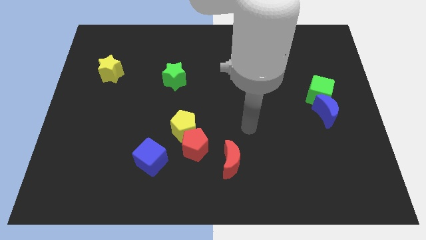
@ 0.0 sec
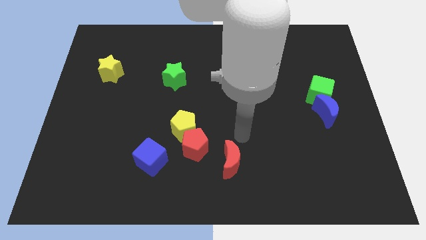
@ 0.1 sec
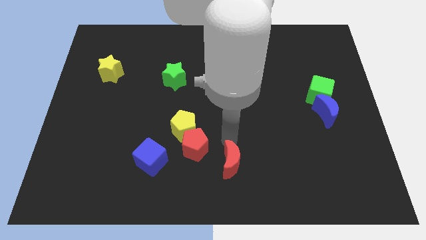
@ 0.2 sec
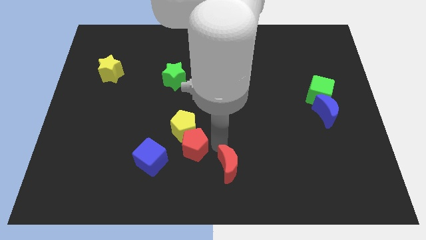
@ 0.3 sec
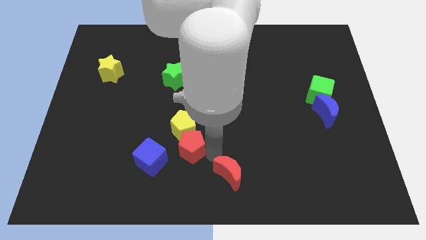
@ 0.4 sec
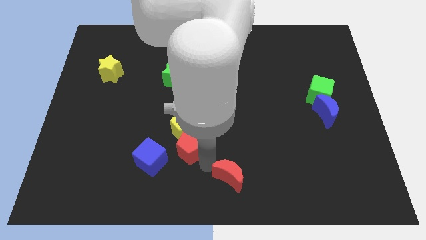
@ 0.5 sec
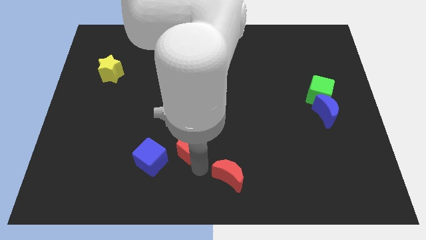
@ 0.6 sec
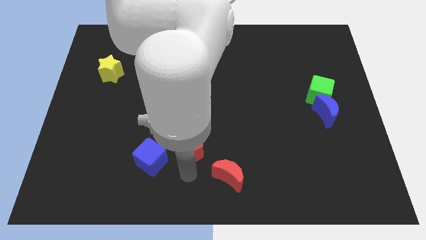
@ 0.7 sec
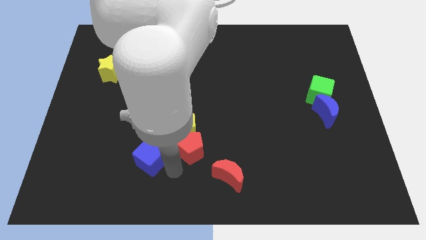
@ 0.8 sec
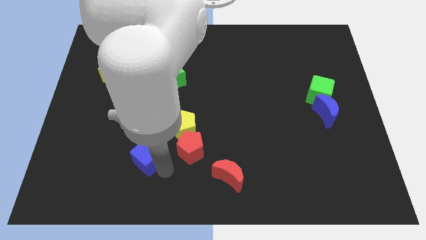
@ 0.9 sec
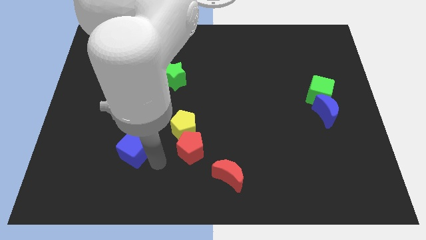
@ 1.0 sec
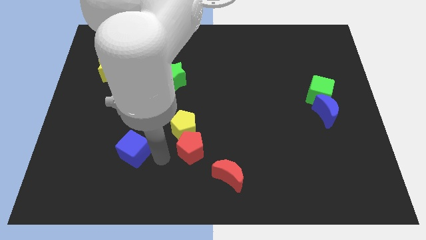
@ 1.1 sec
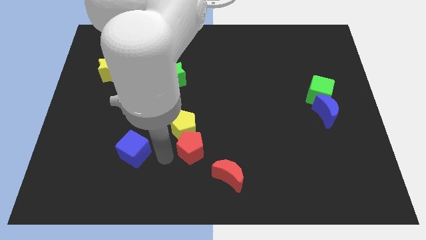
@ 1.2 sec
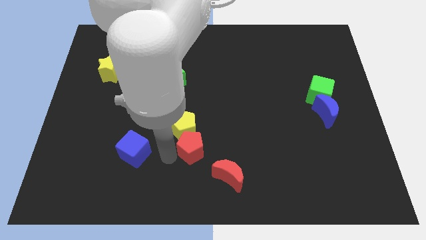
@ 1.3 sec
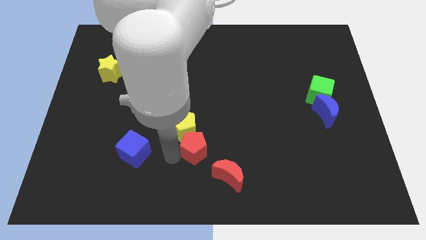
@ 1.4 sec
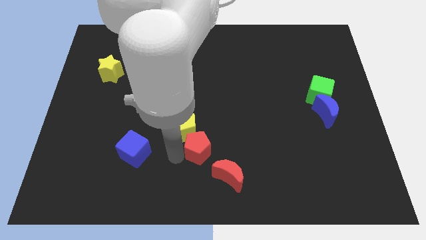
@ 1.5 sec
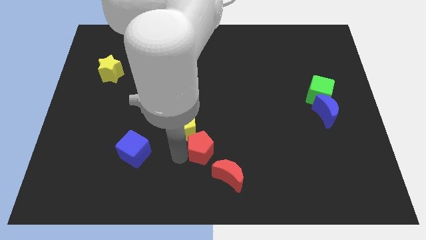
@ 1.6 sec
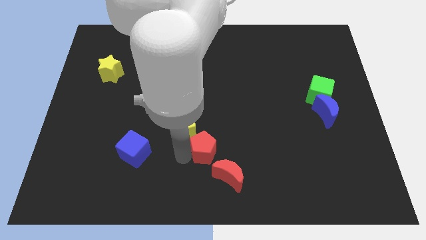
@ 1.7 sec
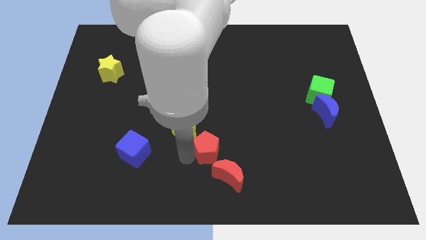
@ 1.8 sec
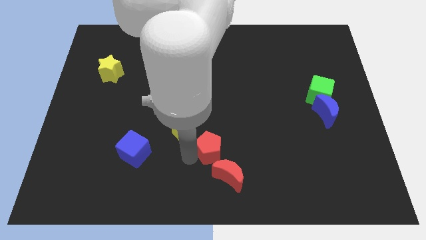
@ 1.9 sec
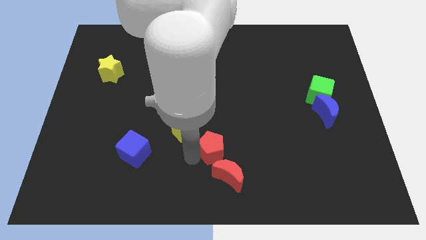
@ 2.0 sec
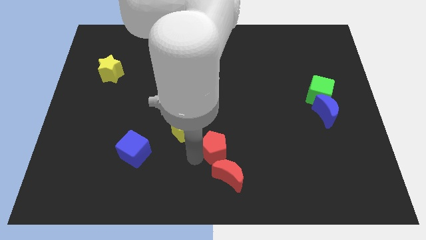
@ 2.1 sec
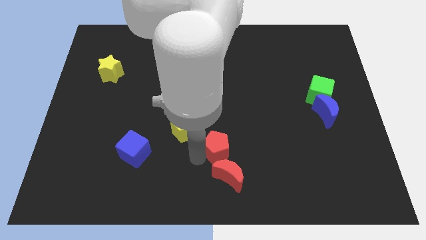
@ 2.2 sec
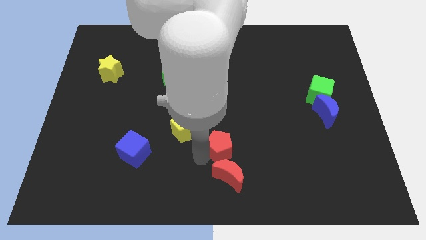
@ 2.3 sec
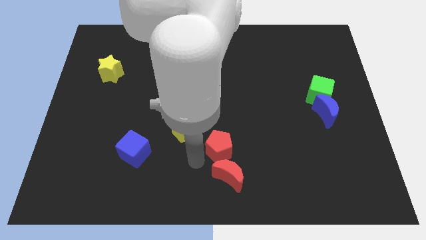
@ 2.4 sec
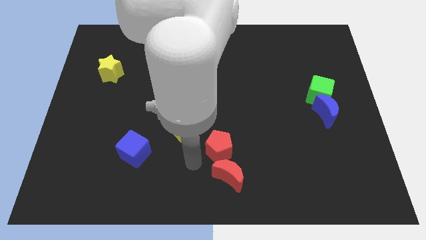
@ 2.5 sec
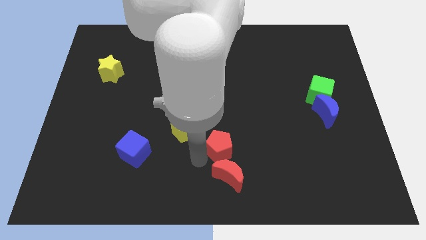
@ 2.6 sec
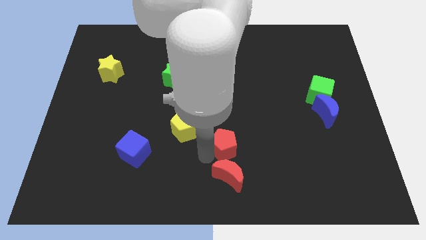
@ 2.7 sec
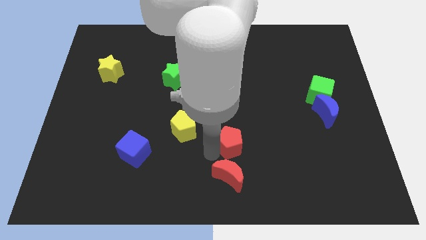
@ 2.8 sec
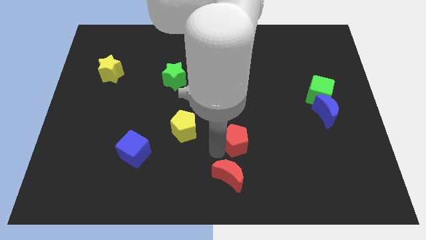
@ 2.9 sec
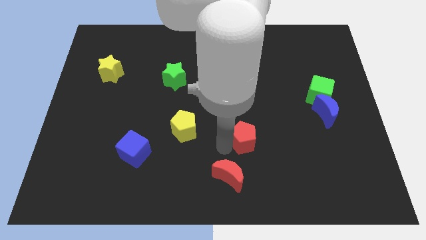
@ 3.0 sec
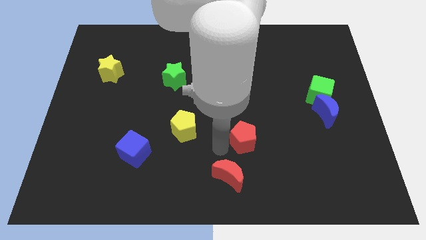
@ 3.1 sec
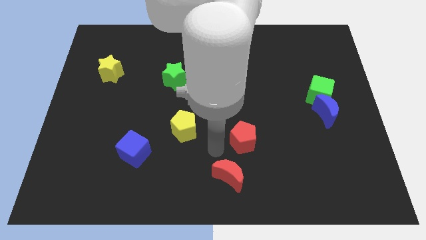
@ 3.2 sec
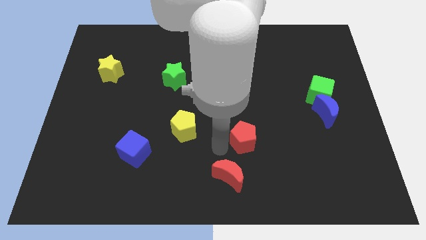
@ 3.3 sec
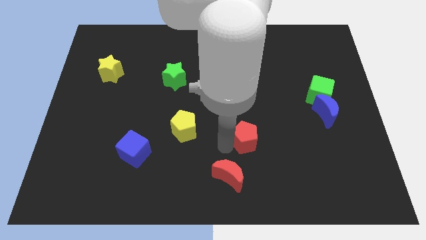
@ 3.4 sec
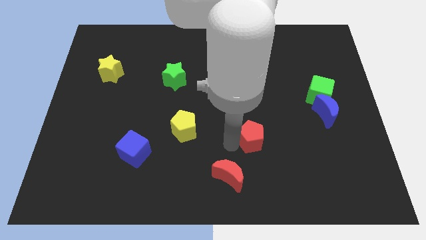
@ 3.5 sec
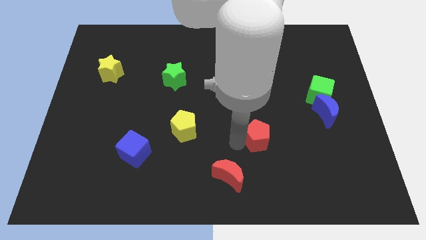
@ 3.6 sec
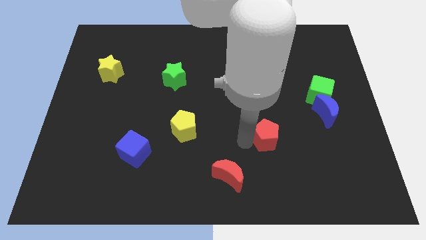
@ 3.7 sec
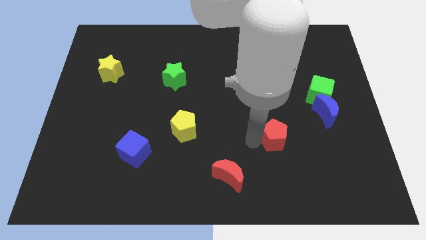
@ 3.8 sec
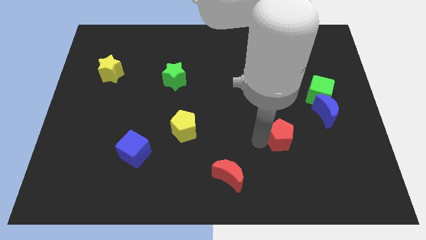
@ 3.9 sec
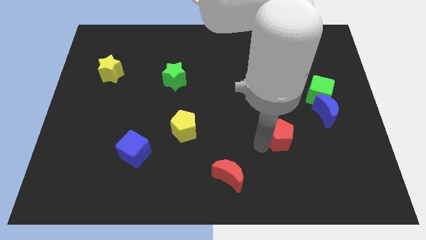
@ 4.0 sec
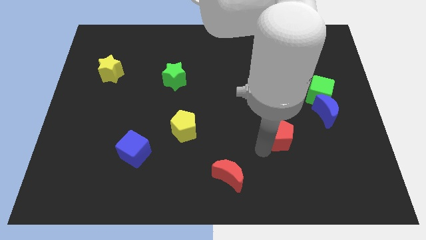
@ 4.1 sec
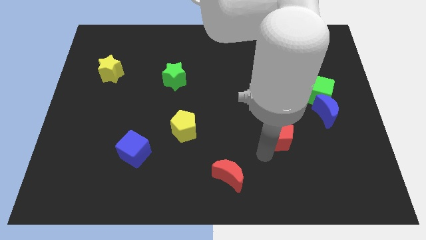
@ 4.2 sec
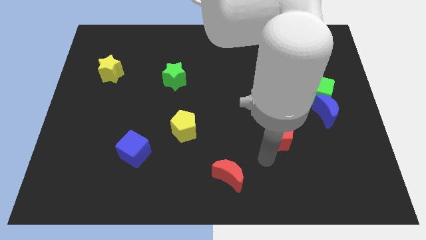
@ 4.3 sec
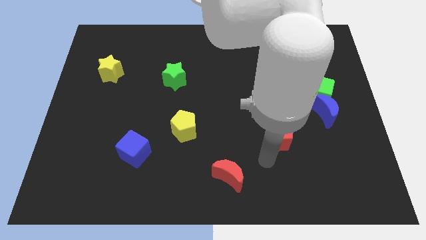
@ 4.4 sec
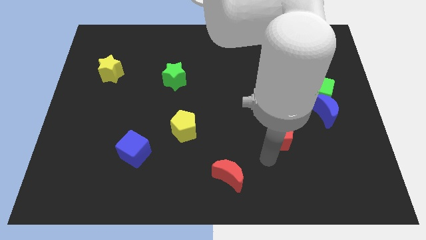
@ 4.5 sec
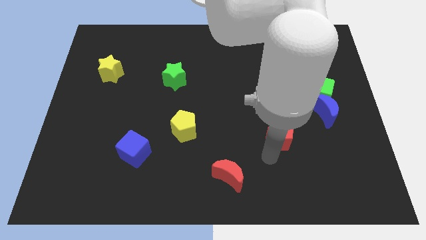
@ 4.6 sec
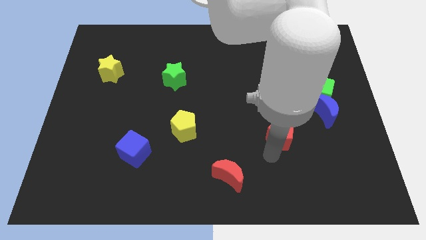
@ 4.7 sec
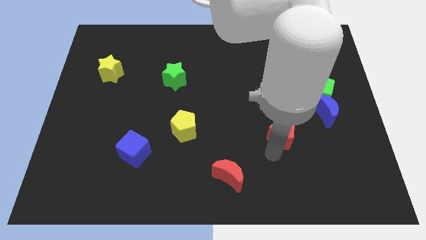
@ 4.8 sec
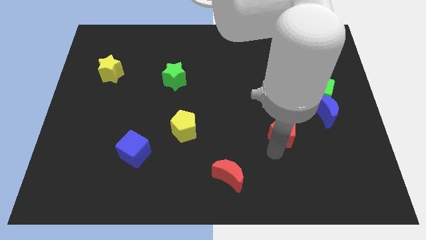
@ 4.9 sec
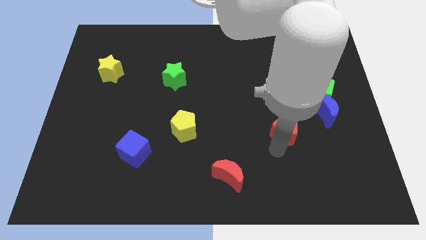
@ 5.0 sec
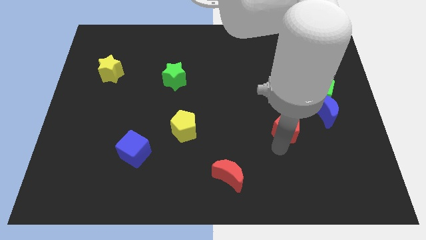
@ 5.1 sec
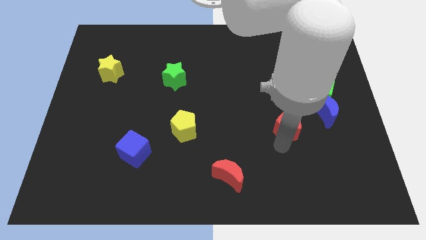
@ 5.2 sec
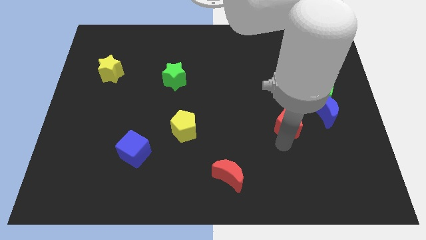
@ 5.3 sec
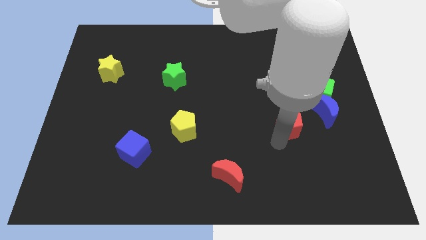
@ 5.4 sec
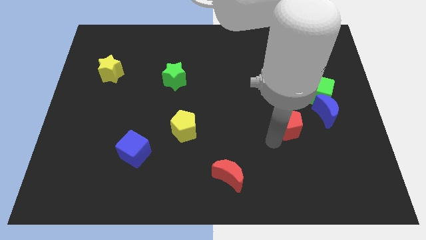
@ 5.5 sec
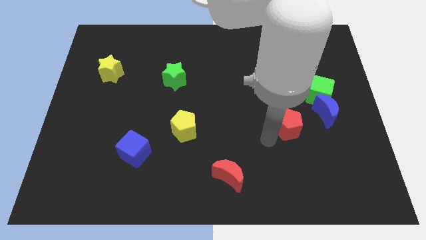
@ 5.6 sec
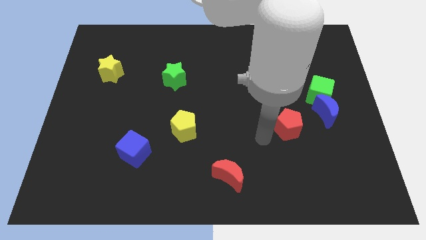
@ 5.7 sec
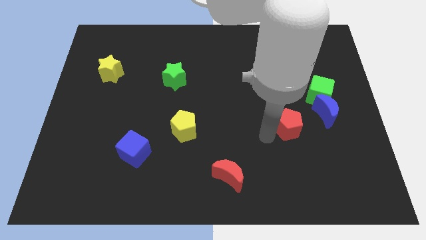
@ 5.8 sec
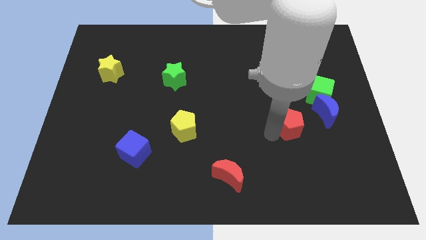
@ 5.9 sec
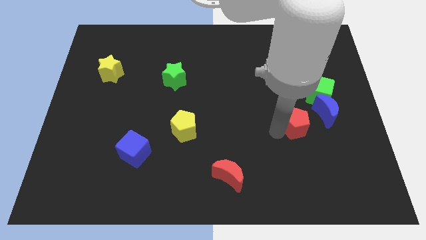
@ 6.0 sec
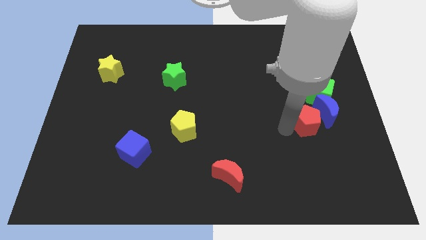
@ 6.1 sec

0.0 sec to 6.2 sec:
move the red pentagon close to the blue moon

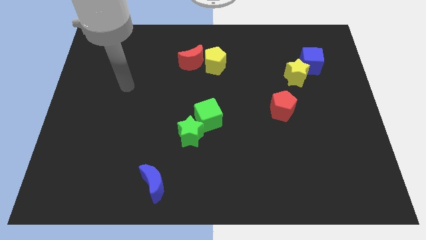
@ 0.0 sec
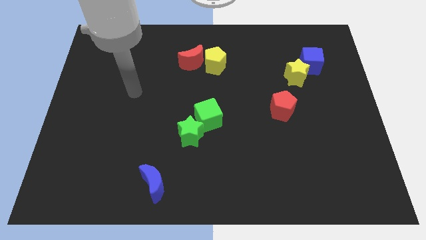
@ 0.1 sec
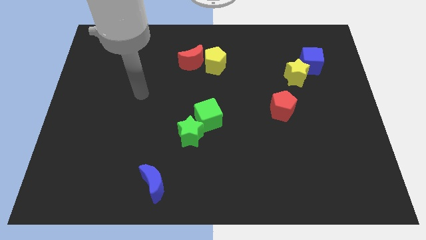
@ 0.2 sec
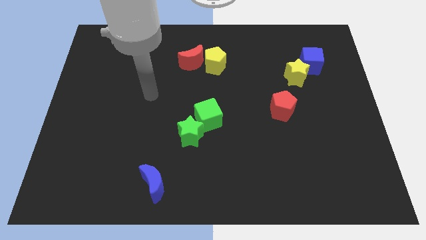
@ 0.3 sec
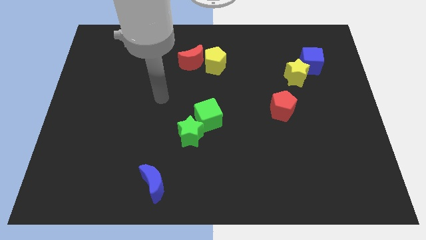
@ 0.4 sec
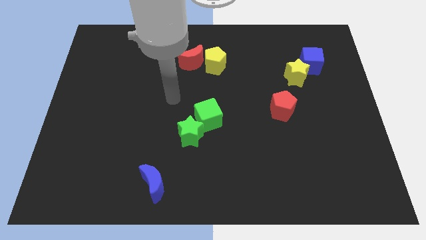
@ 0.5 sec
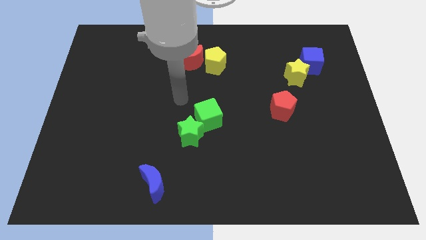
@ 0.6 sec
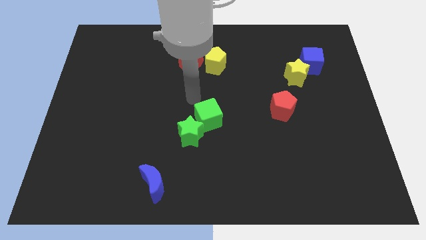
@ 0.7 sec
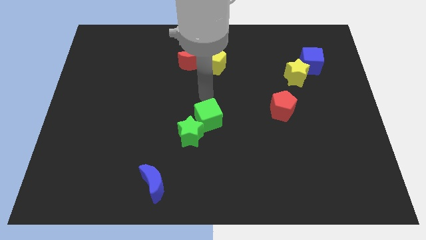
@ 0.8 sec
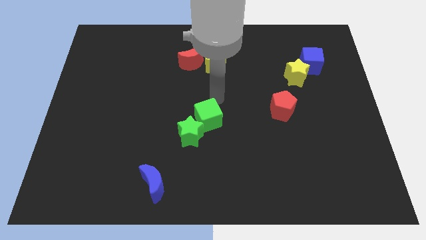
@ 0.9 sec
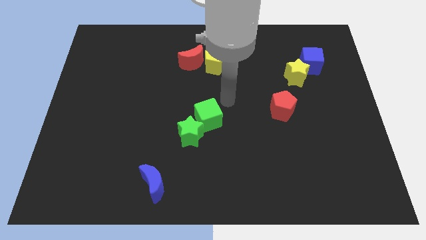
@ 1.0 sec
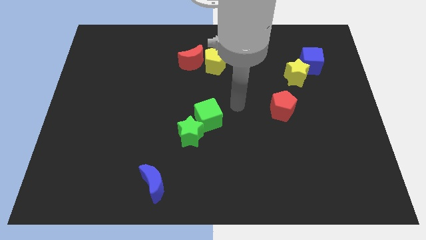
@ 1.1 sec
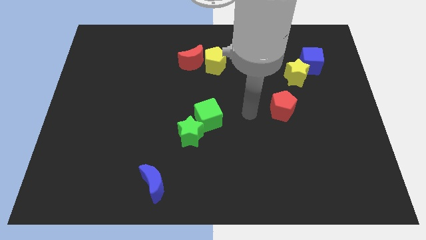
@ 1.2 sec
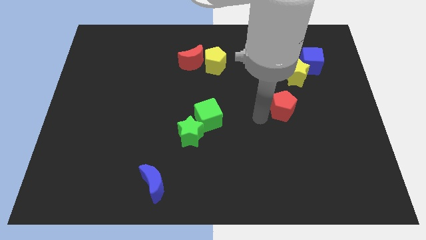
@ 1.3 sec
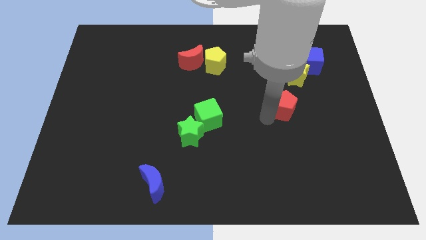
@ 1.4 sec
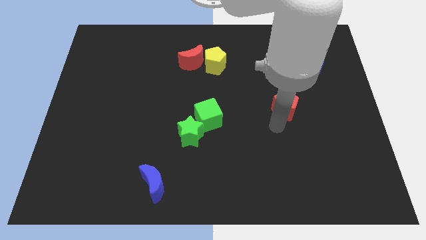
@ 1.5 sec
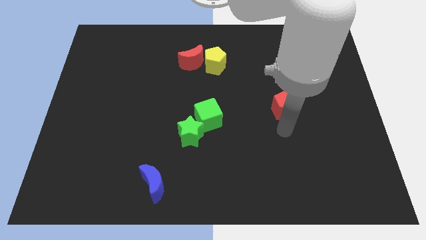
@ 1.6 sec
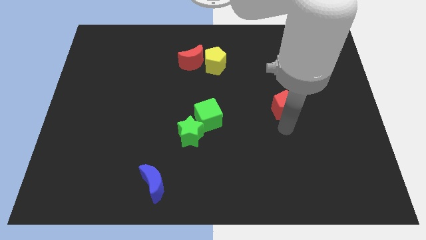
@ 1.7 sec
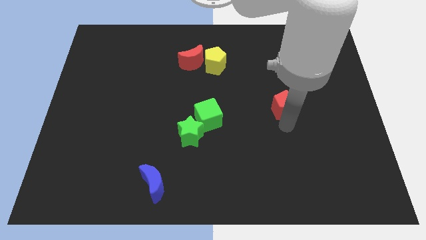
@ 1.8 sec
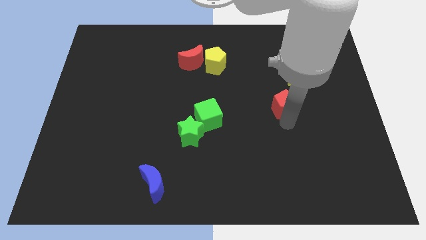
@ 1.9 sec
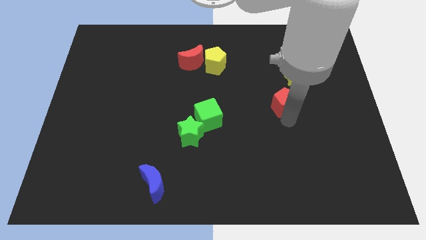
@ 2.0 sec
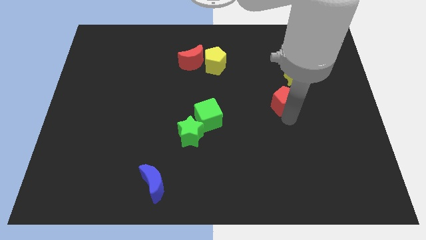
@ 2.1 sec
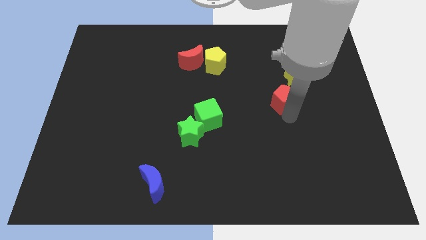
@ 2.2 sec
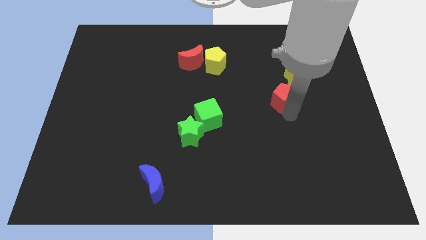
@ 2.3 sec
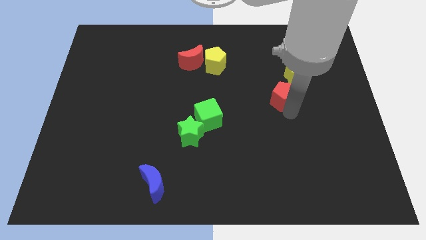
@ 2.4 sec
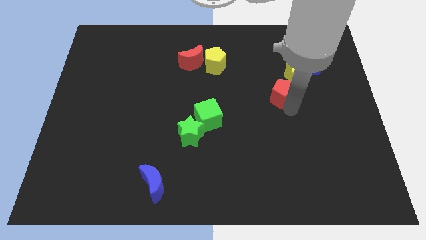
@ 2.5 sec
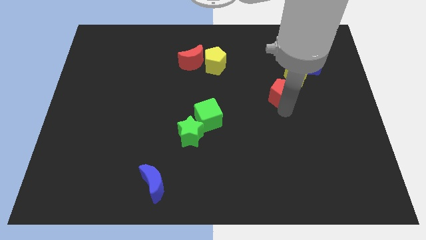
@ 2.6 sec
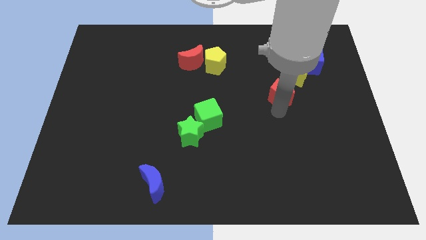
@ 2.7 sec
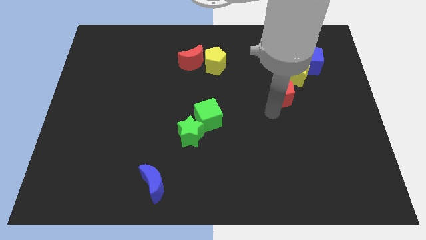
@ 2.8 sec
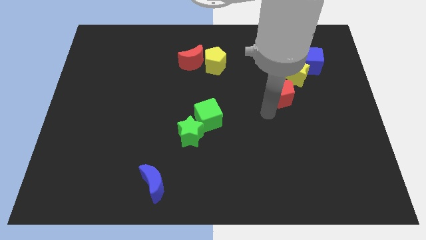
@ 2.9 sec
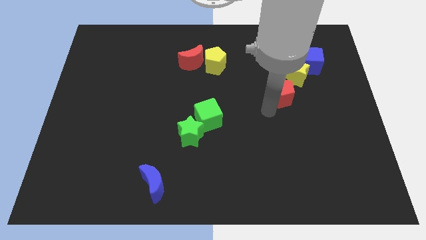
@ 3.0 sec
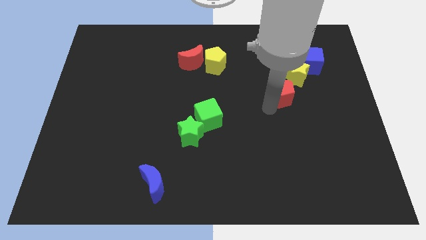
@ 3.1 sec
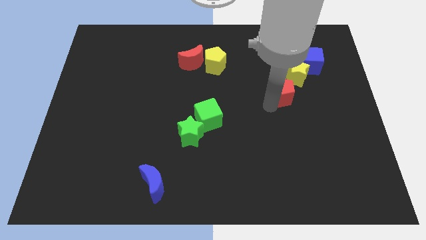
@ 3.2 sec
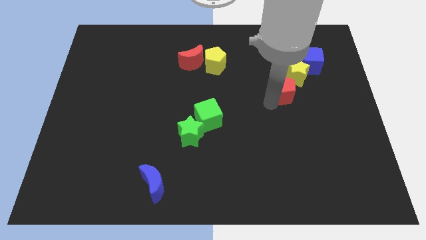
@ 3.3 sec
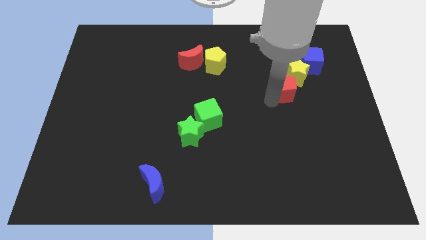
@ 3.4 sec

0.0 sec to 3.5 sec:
push the red pentagon to the yellow star
